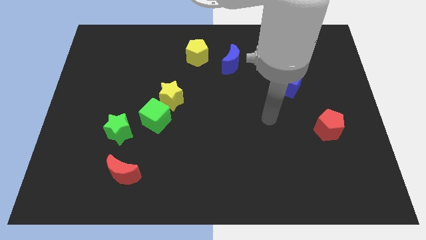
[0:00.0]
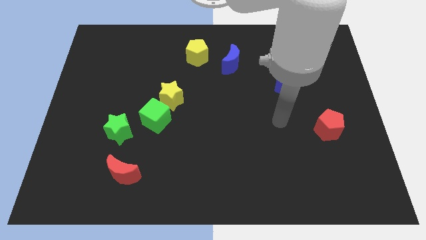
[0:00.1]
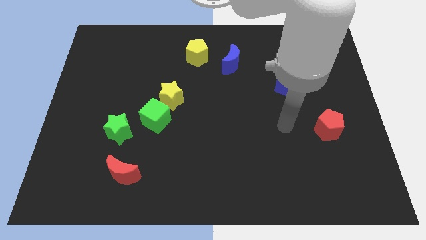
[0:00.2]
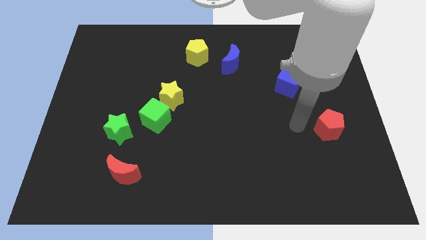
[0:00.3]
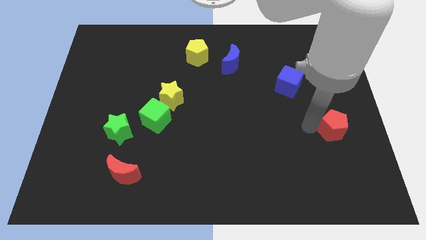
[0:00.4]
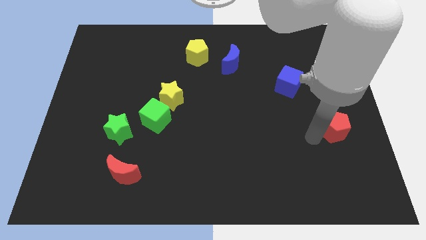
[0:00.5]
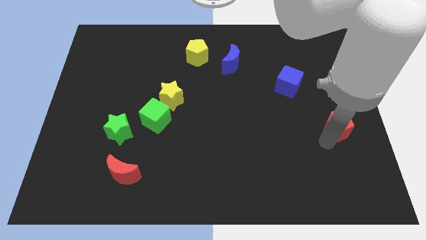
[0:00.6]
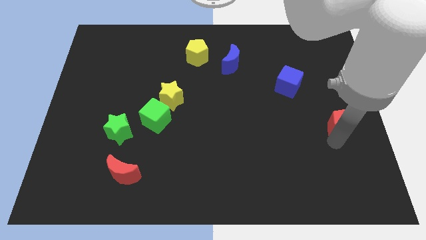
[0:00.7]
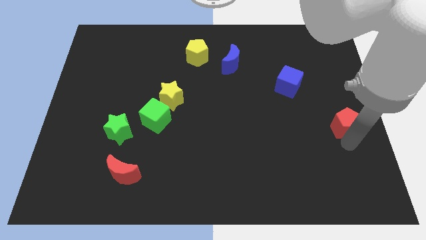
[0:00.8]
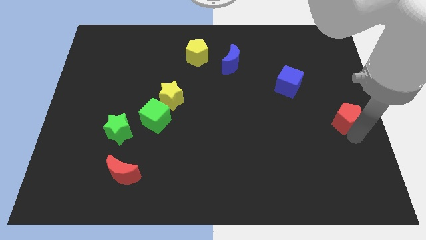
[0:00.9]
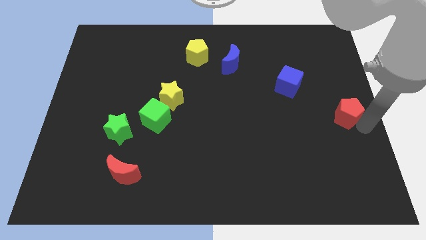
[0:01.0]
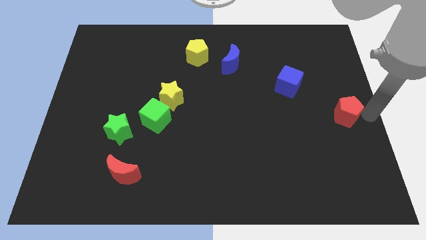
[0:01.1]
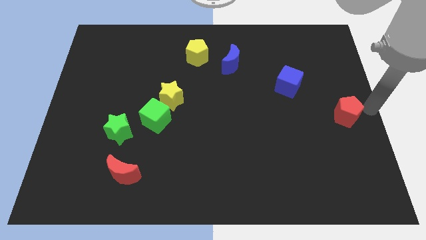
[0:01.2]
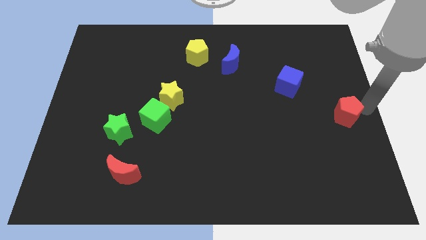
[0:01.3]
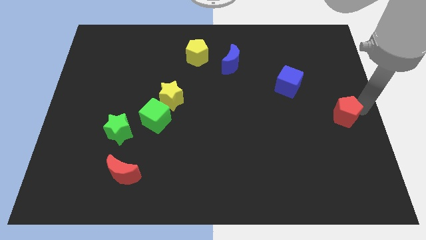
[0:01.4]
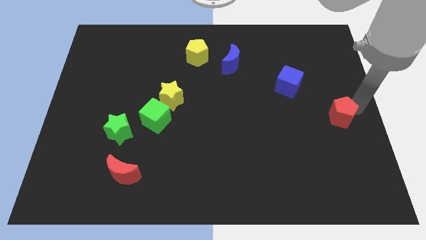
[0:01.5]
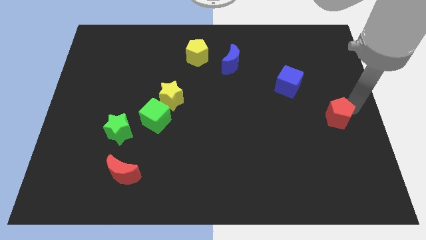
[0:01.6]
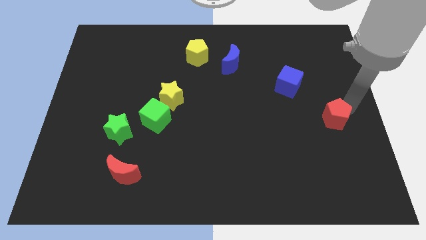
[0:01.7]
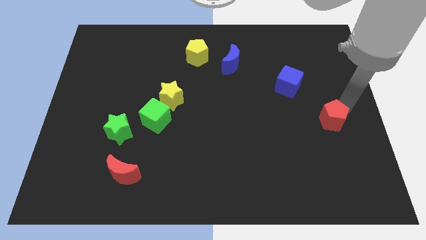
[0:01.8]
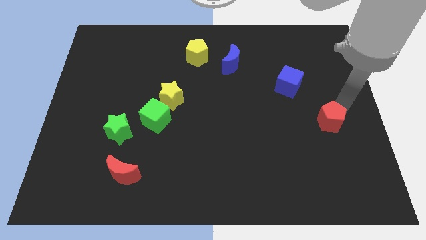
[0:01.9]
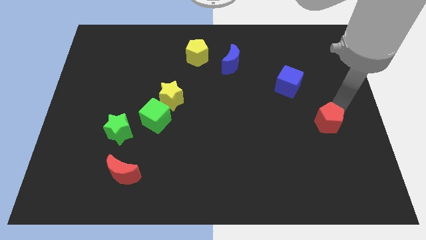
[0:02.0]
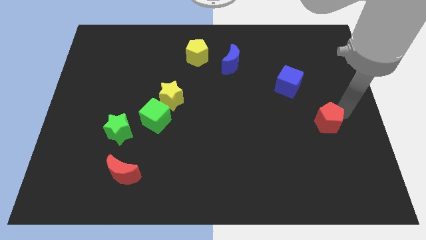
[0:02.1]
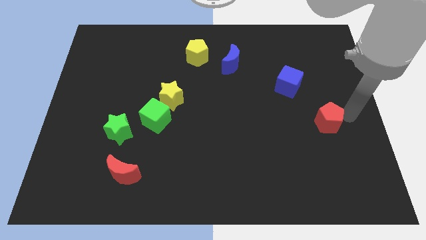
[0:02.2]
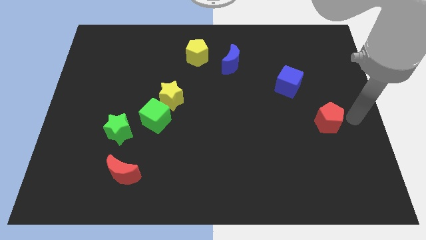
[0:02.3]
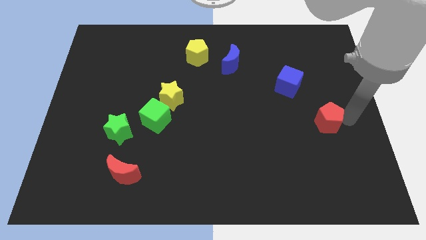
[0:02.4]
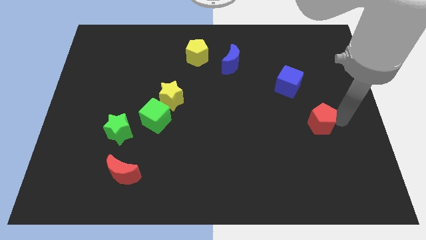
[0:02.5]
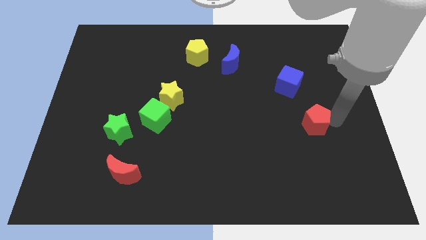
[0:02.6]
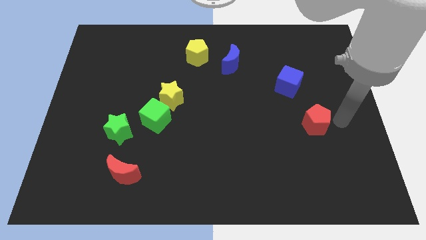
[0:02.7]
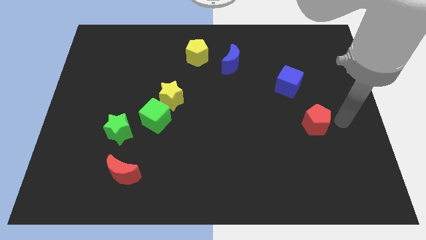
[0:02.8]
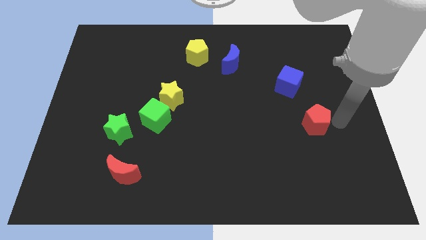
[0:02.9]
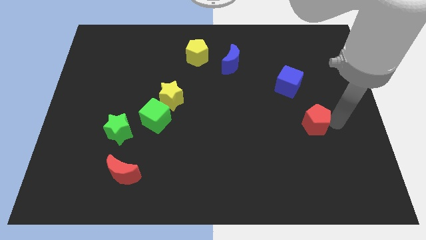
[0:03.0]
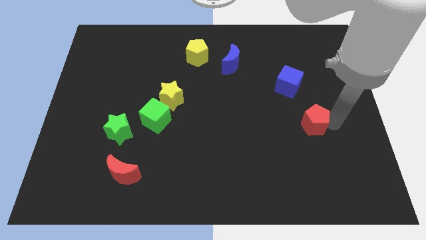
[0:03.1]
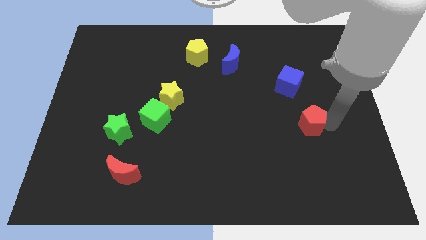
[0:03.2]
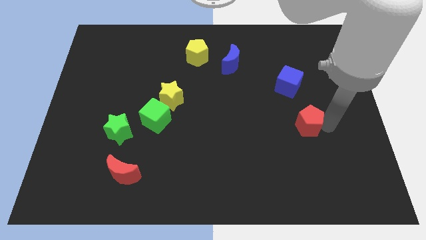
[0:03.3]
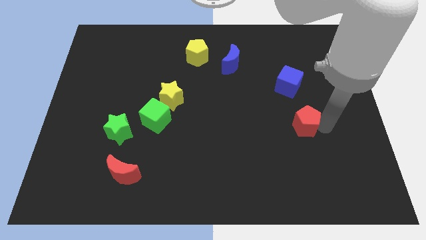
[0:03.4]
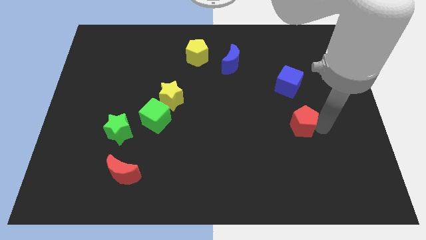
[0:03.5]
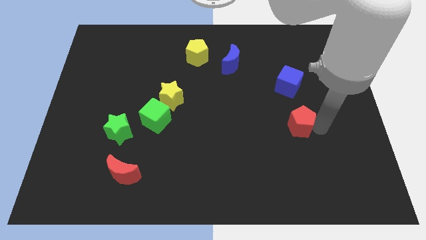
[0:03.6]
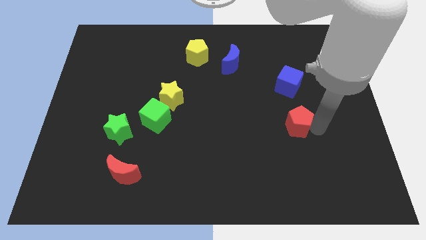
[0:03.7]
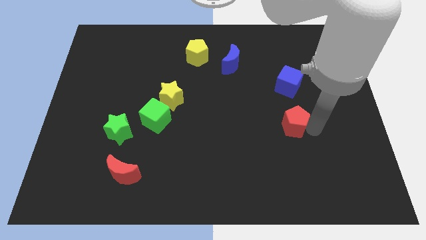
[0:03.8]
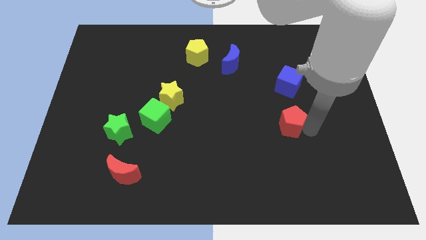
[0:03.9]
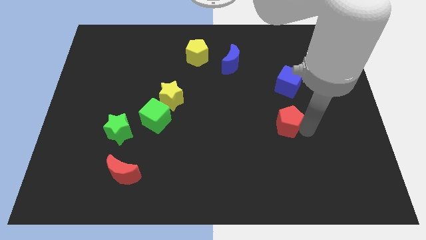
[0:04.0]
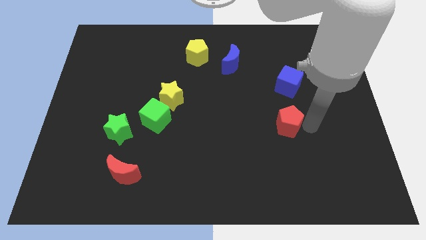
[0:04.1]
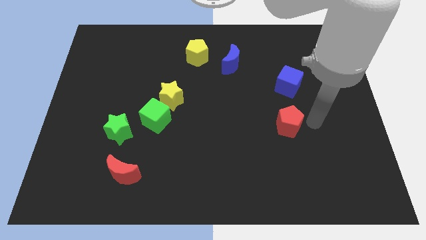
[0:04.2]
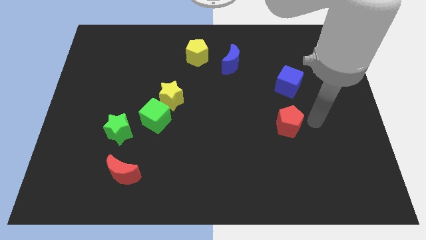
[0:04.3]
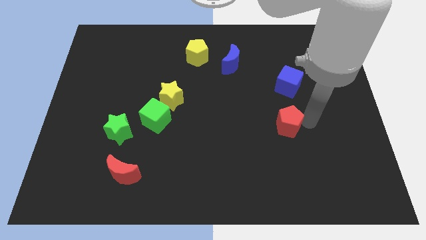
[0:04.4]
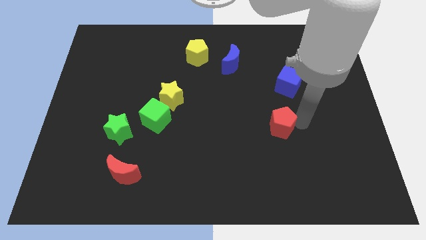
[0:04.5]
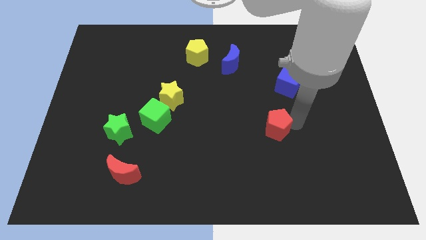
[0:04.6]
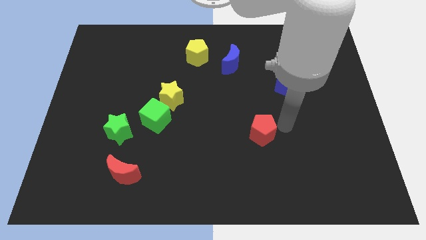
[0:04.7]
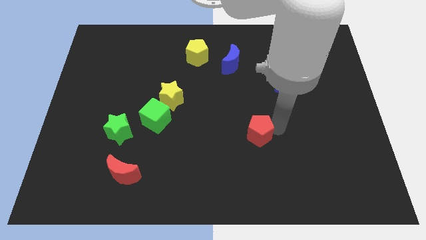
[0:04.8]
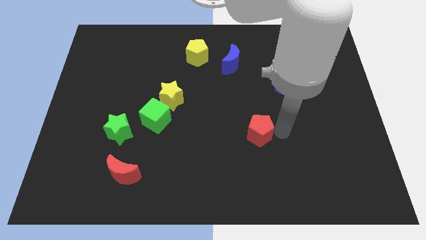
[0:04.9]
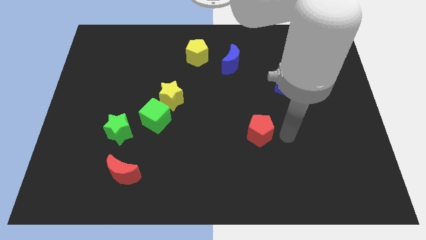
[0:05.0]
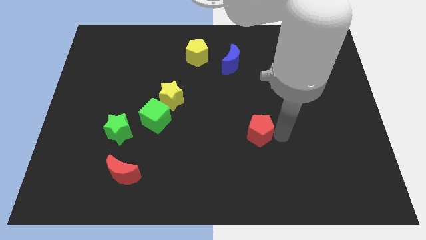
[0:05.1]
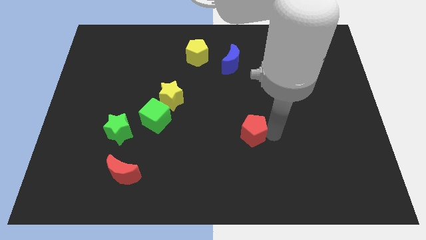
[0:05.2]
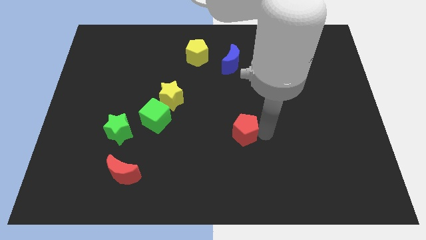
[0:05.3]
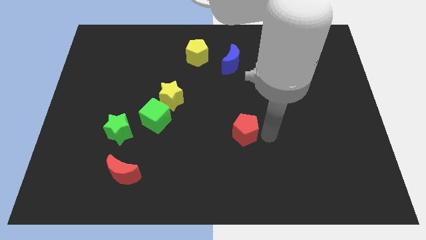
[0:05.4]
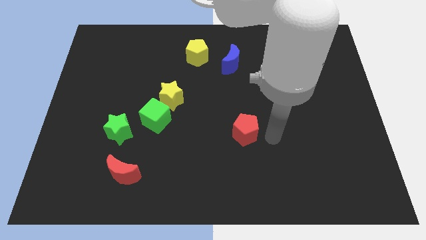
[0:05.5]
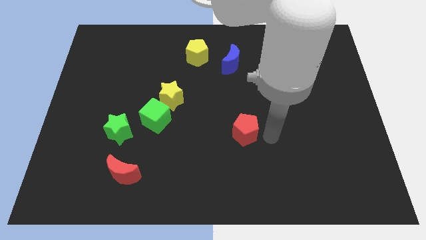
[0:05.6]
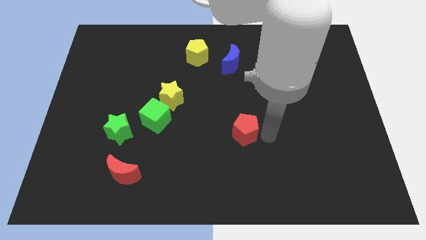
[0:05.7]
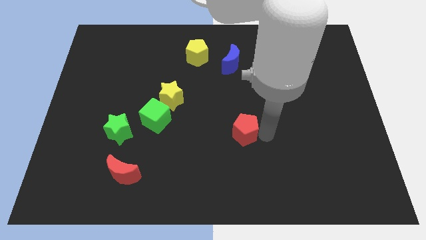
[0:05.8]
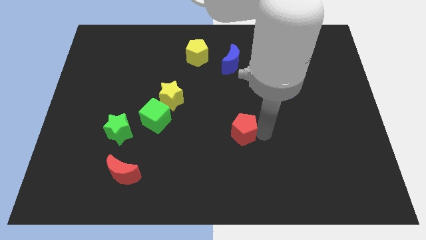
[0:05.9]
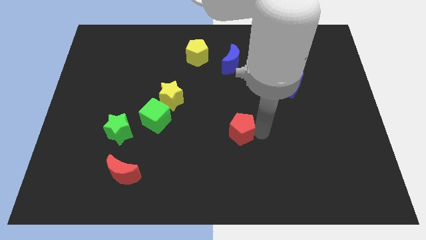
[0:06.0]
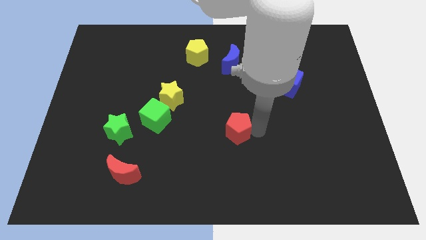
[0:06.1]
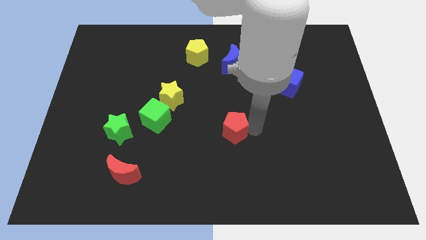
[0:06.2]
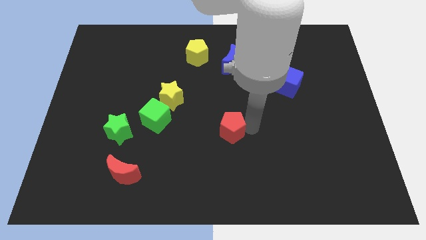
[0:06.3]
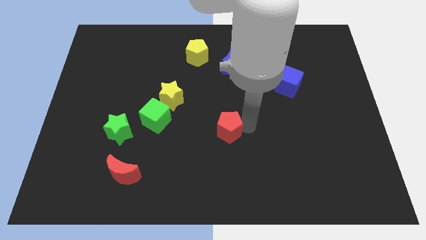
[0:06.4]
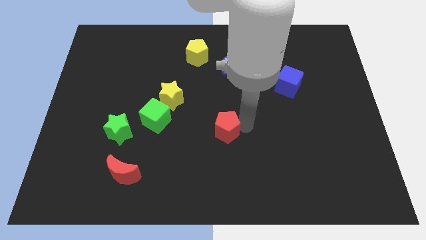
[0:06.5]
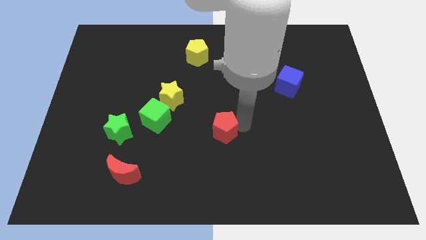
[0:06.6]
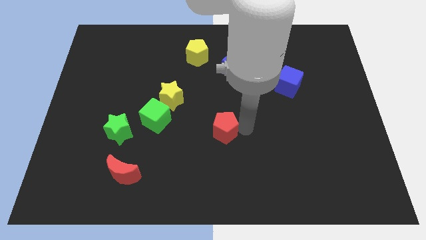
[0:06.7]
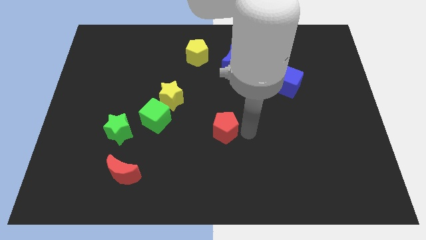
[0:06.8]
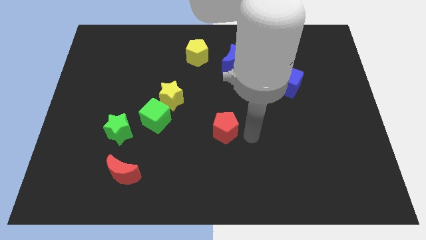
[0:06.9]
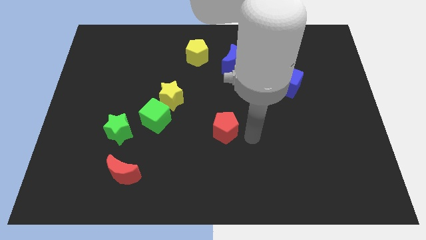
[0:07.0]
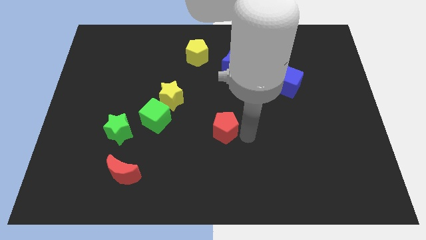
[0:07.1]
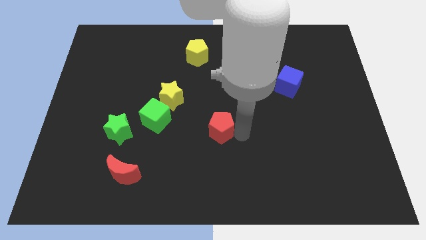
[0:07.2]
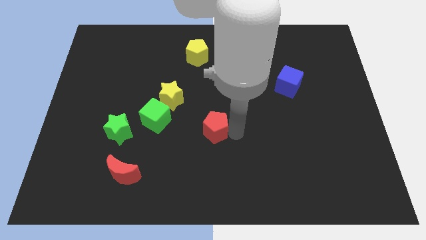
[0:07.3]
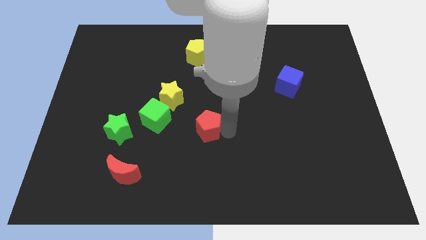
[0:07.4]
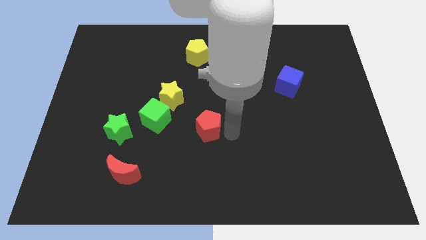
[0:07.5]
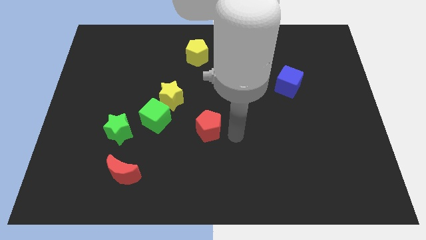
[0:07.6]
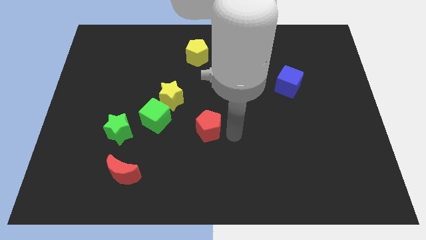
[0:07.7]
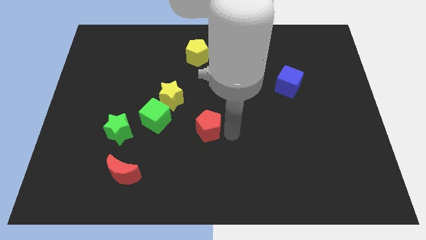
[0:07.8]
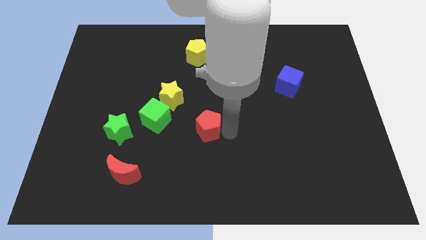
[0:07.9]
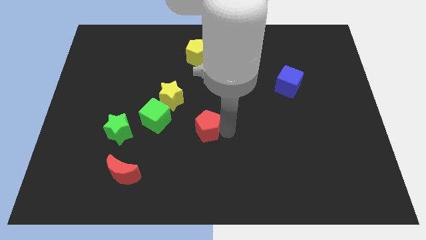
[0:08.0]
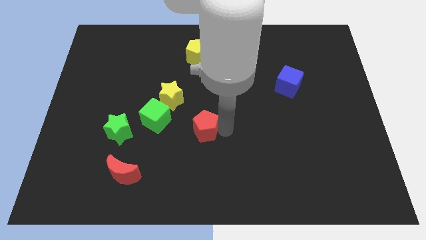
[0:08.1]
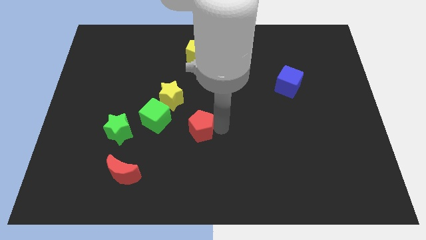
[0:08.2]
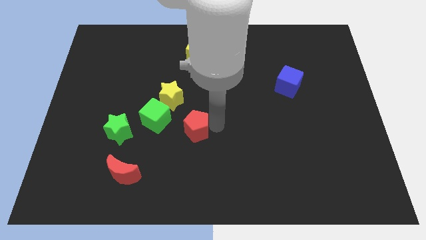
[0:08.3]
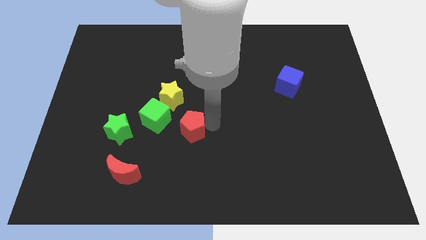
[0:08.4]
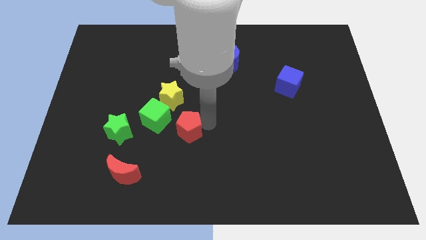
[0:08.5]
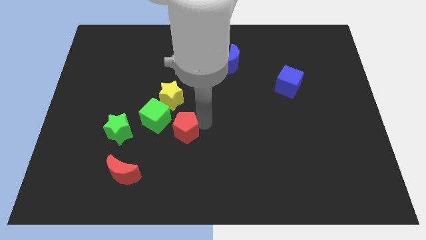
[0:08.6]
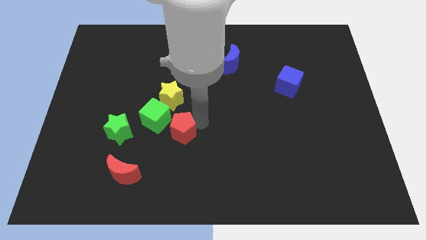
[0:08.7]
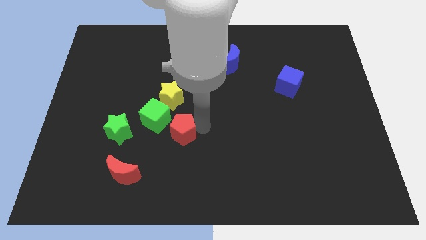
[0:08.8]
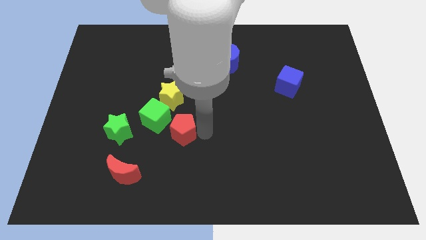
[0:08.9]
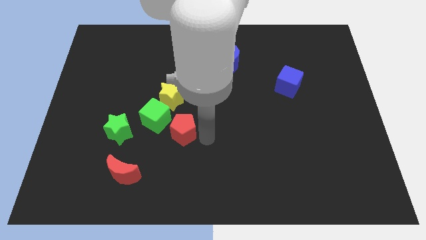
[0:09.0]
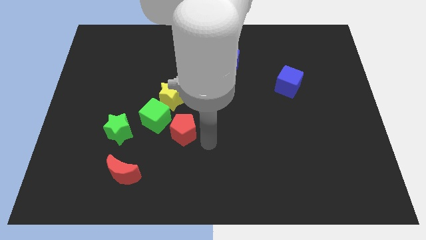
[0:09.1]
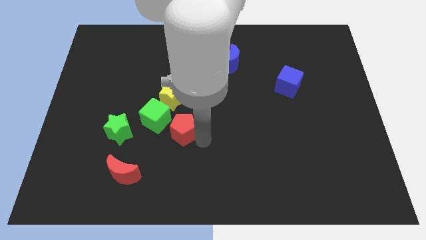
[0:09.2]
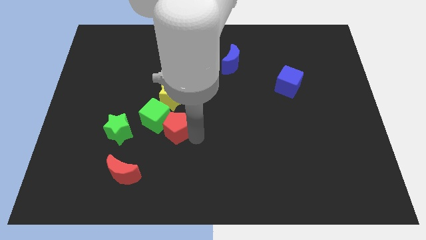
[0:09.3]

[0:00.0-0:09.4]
move the red pentagon to the green cube
